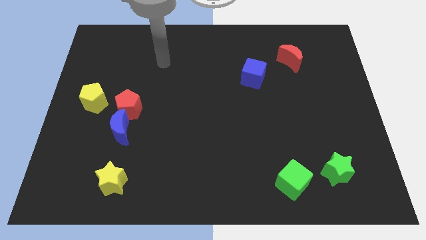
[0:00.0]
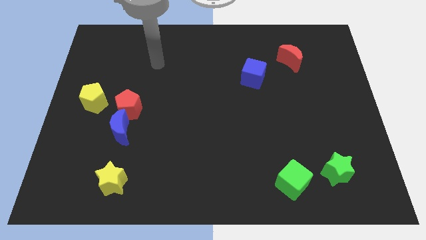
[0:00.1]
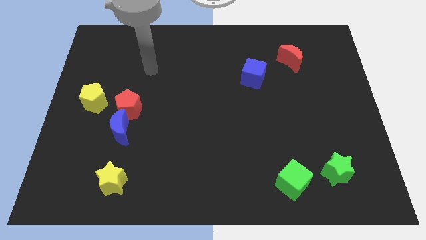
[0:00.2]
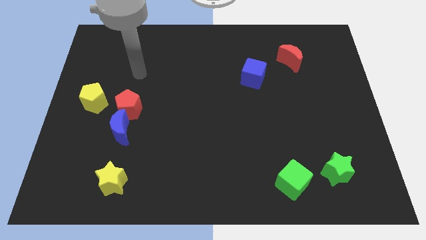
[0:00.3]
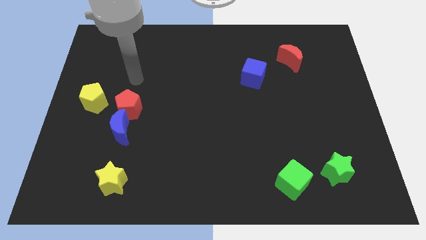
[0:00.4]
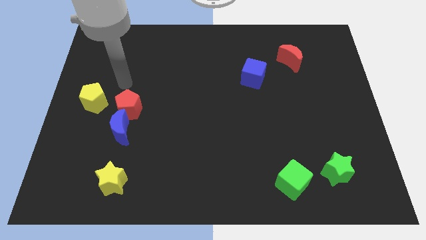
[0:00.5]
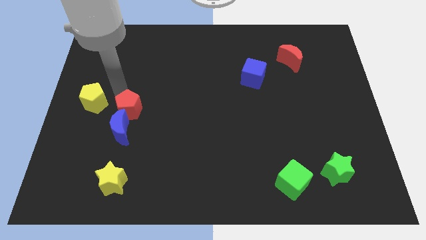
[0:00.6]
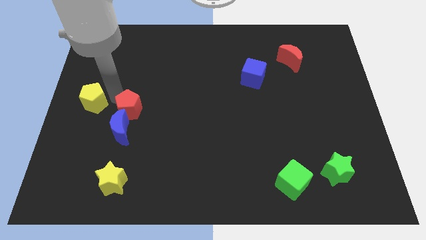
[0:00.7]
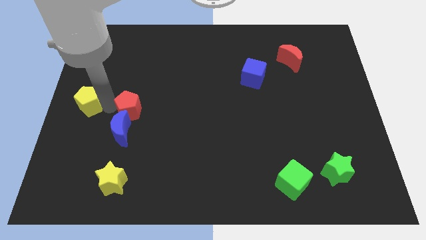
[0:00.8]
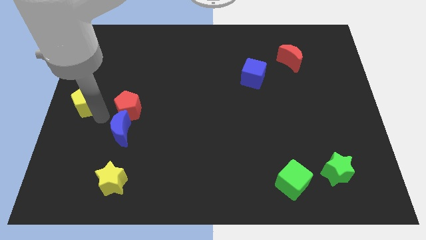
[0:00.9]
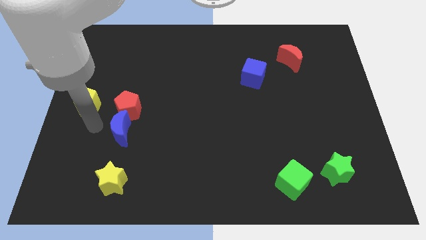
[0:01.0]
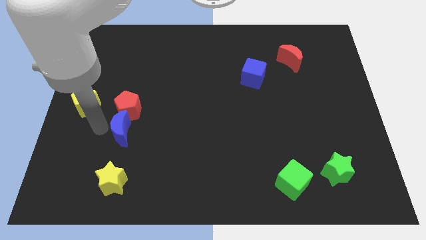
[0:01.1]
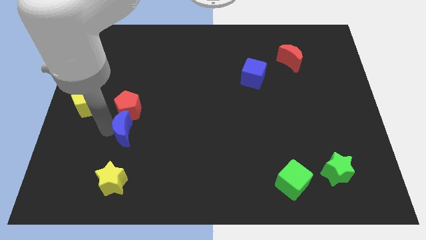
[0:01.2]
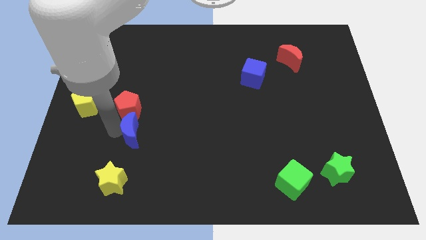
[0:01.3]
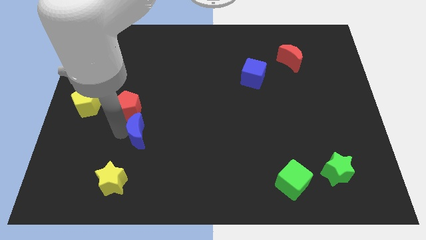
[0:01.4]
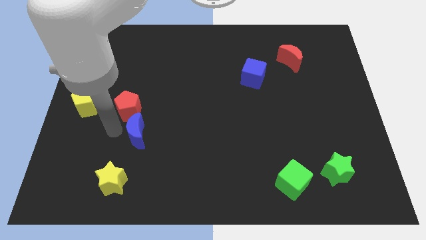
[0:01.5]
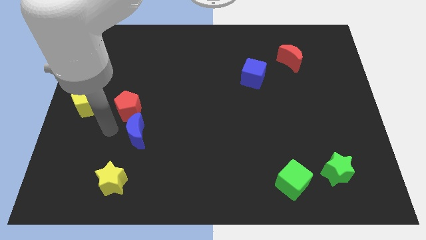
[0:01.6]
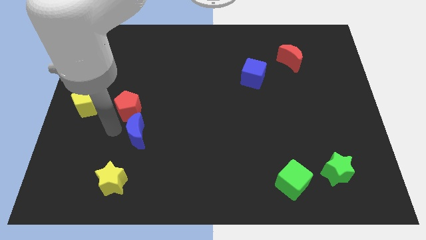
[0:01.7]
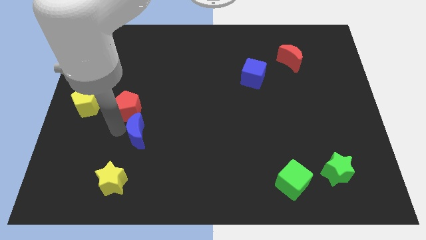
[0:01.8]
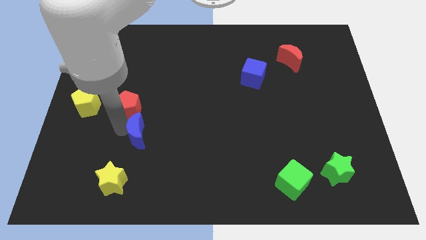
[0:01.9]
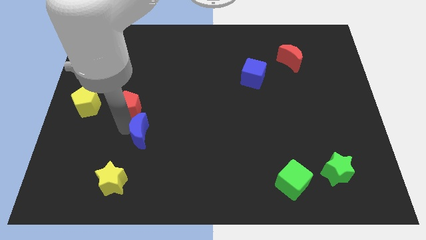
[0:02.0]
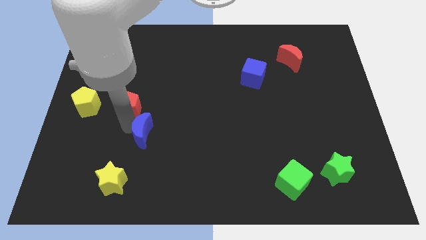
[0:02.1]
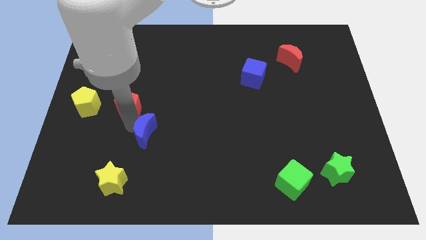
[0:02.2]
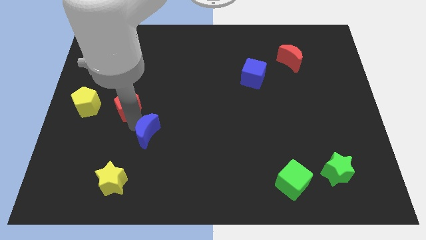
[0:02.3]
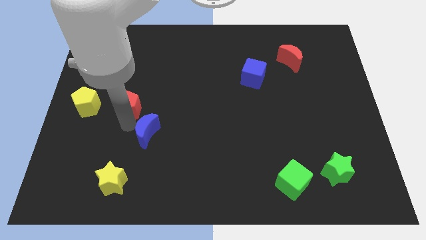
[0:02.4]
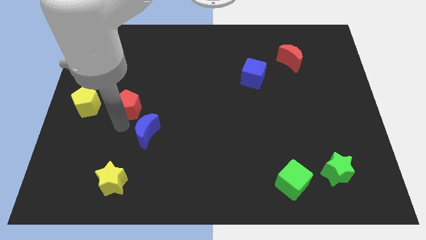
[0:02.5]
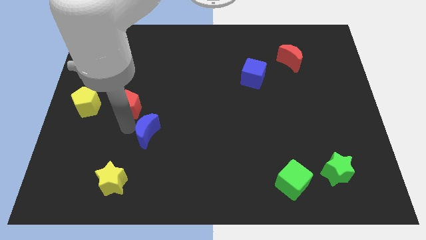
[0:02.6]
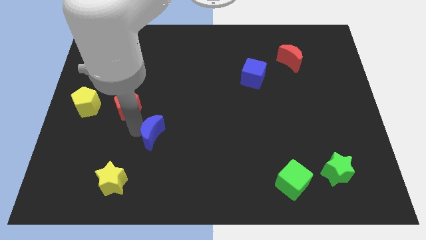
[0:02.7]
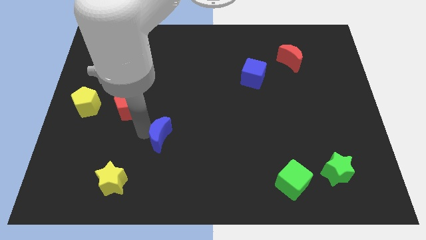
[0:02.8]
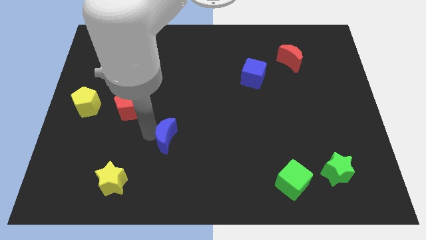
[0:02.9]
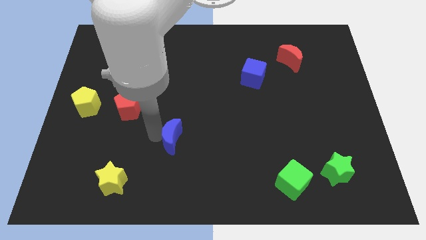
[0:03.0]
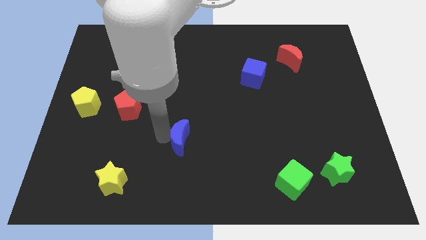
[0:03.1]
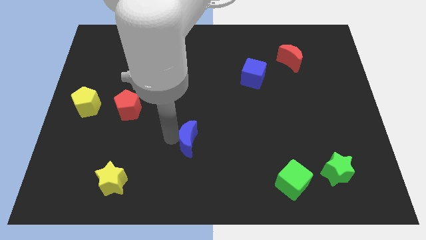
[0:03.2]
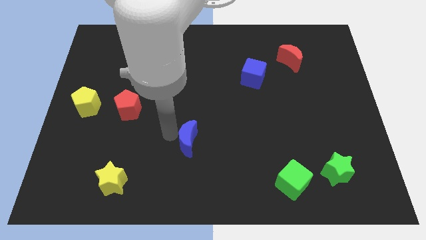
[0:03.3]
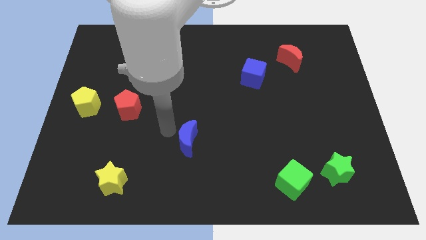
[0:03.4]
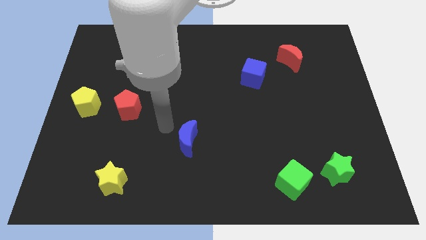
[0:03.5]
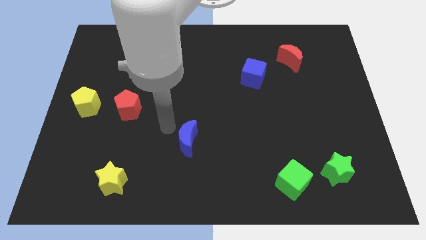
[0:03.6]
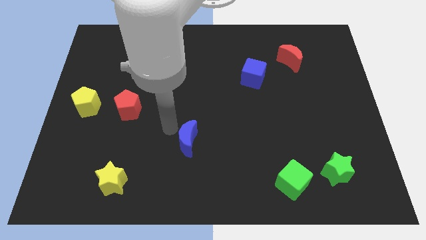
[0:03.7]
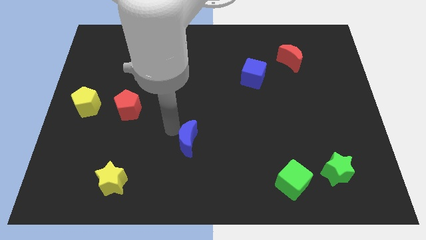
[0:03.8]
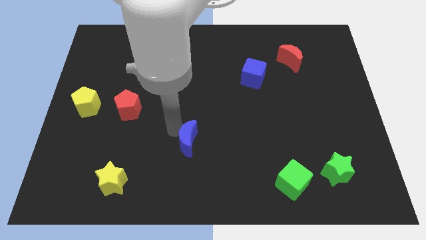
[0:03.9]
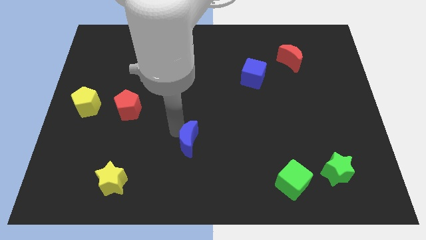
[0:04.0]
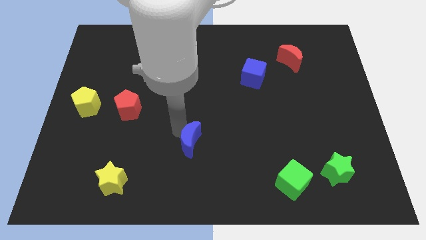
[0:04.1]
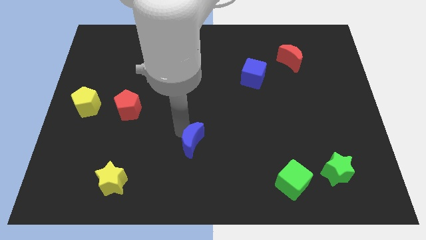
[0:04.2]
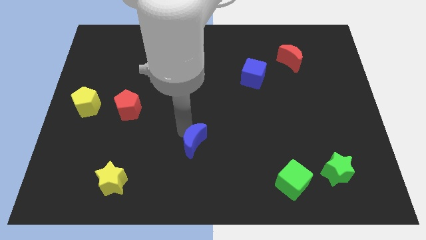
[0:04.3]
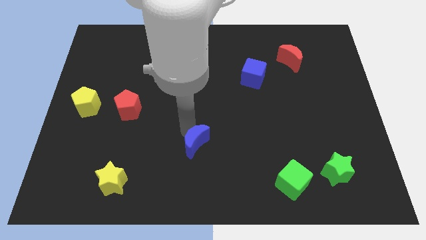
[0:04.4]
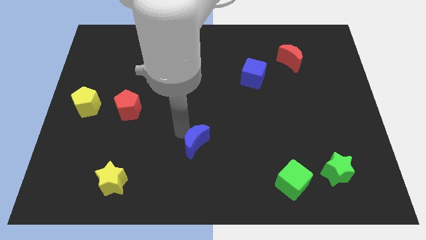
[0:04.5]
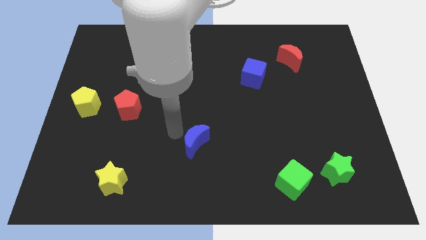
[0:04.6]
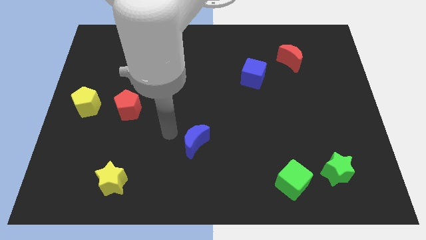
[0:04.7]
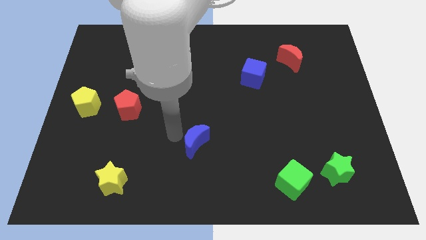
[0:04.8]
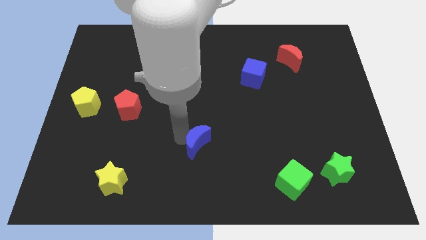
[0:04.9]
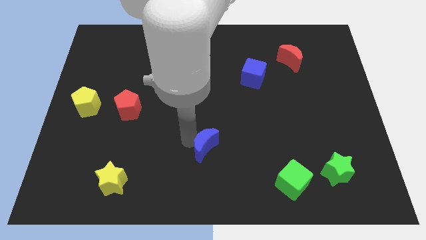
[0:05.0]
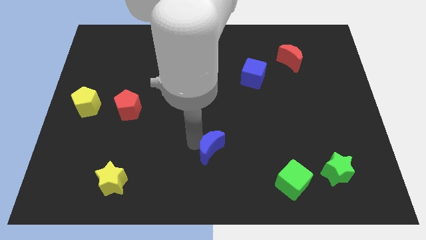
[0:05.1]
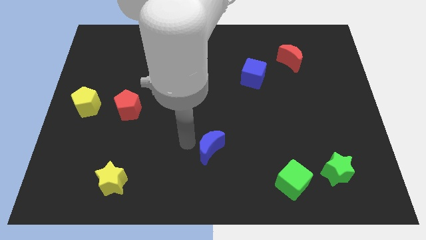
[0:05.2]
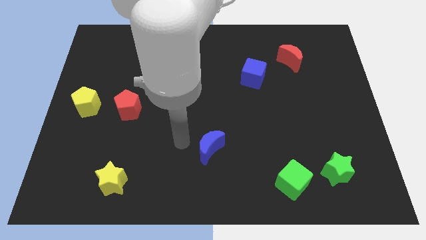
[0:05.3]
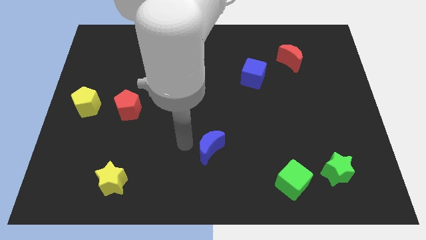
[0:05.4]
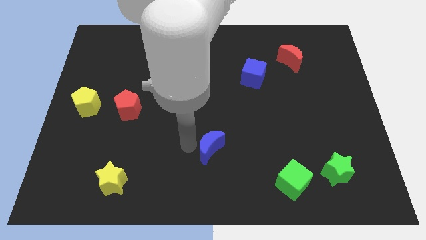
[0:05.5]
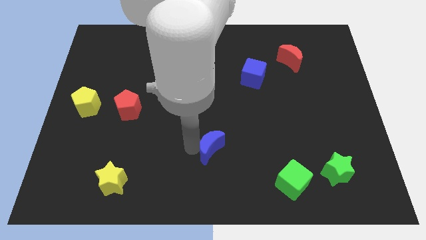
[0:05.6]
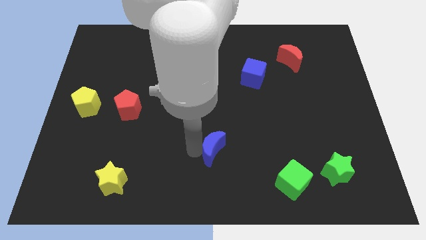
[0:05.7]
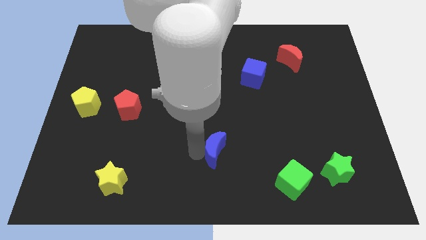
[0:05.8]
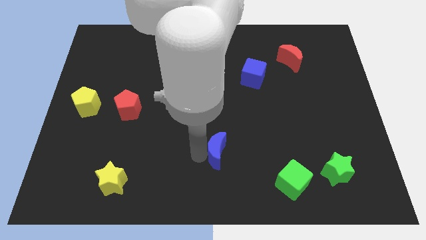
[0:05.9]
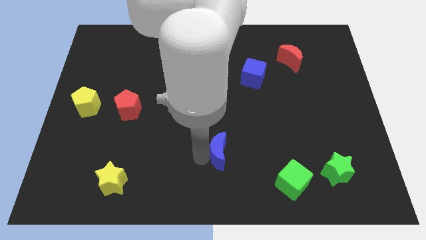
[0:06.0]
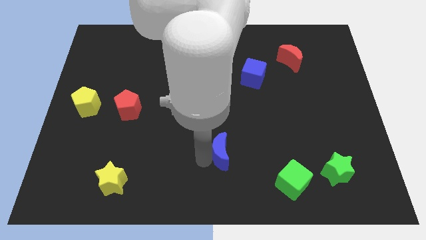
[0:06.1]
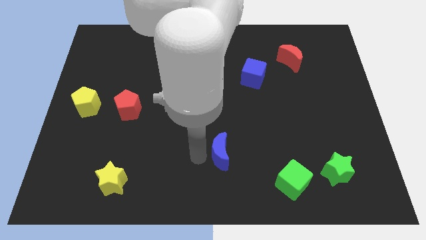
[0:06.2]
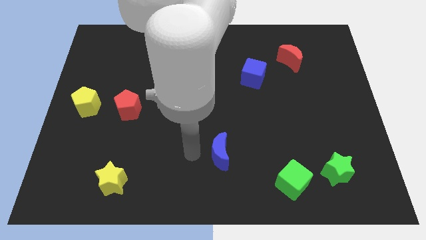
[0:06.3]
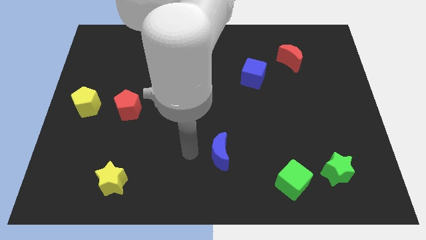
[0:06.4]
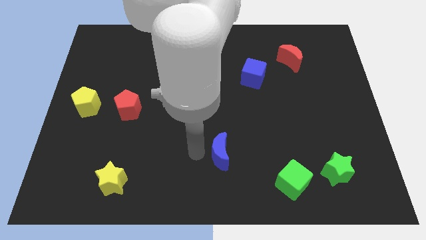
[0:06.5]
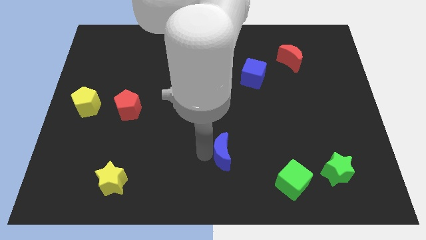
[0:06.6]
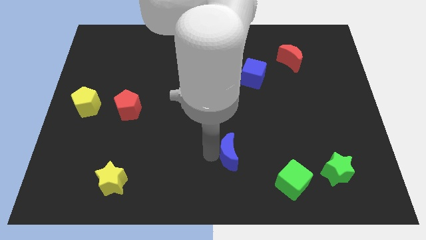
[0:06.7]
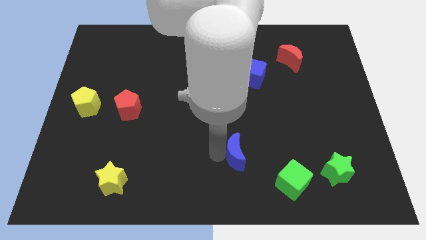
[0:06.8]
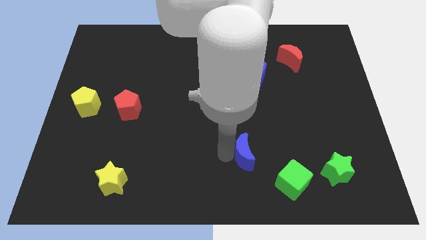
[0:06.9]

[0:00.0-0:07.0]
move the blue moon diagonally up and to the left of the green cube

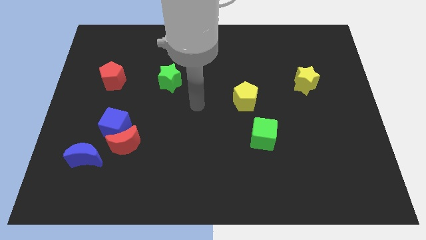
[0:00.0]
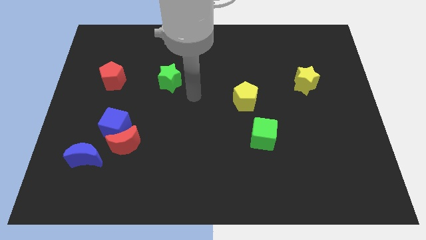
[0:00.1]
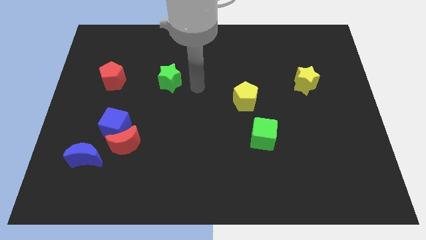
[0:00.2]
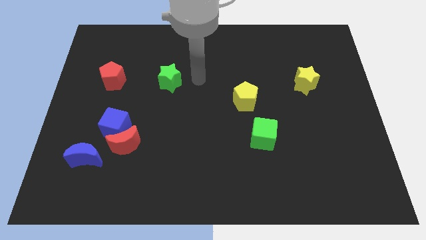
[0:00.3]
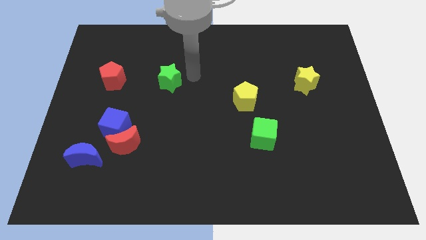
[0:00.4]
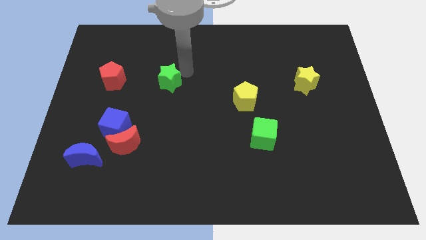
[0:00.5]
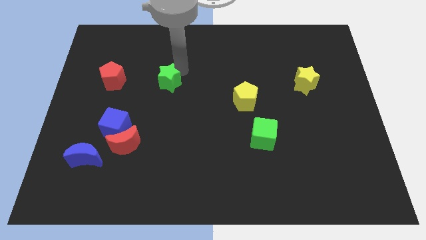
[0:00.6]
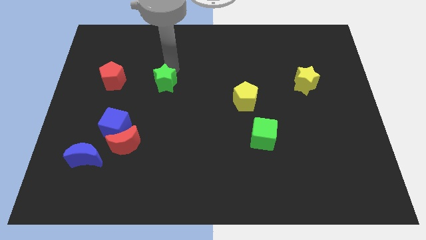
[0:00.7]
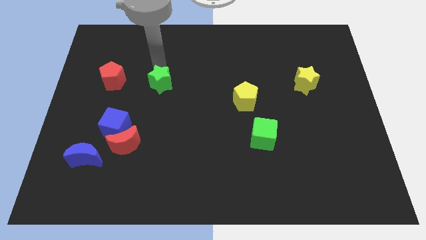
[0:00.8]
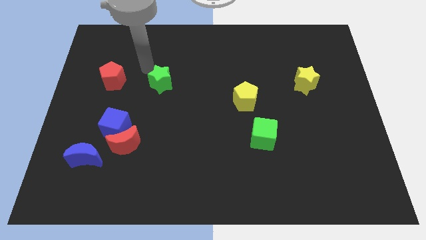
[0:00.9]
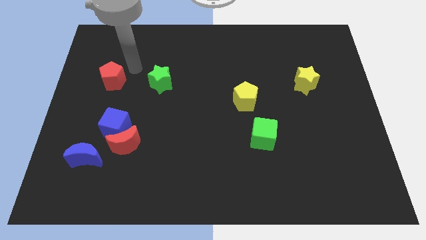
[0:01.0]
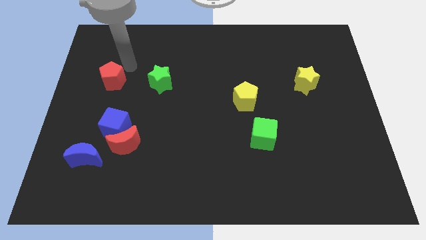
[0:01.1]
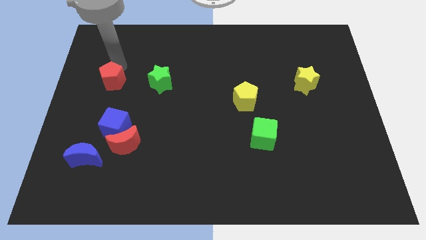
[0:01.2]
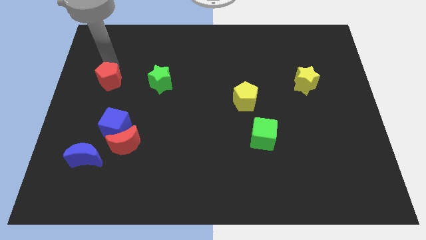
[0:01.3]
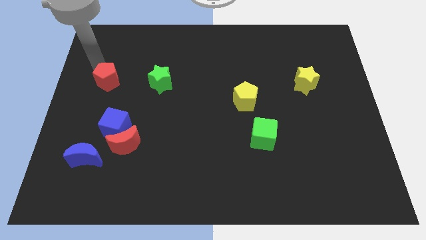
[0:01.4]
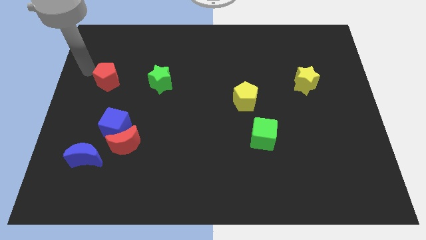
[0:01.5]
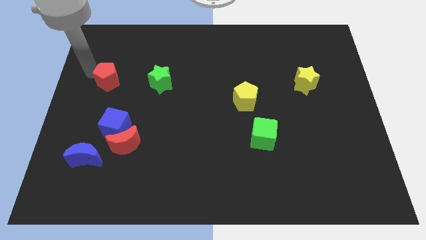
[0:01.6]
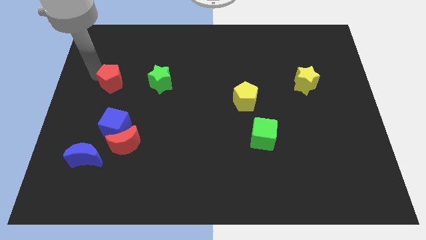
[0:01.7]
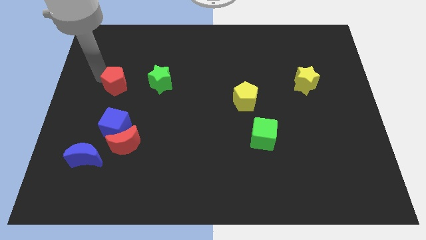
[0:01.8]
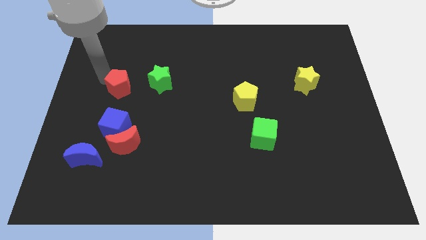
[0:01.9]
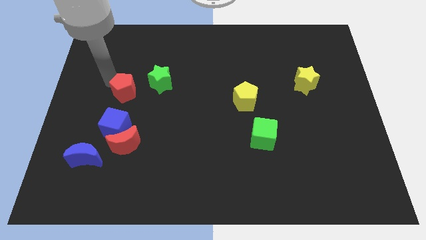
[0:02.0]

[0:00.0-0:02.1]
slide the red pentagon to the bottom left of the green star
